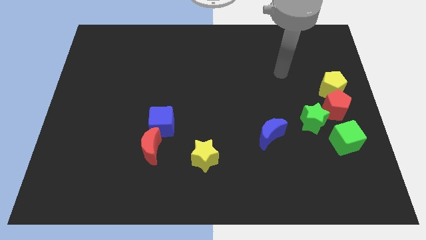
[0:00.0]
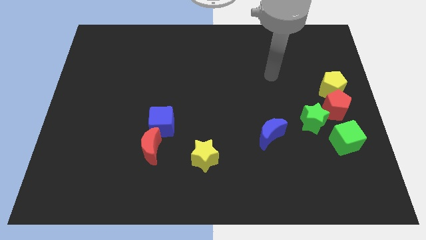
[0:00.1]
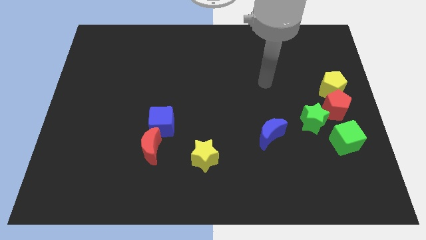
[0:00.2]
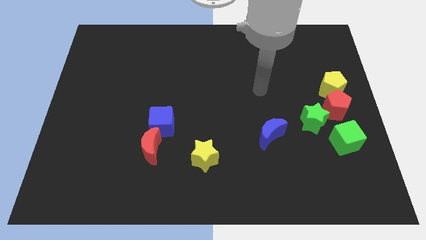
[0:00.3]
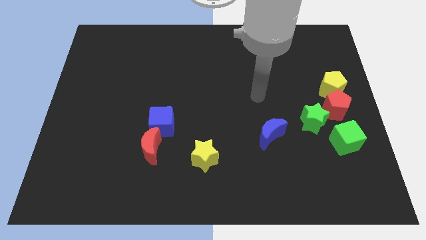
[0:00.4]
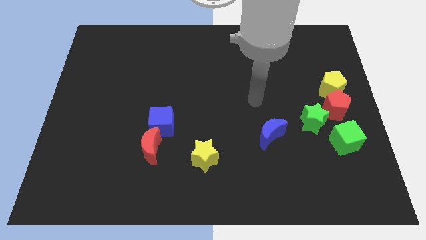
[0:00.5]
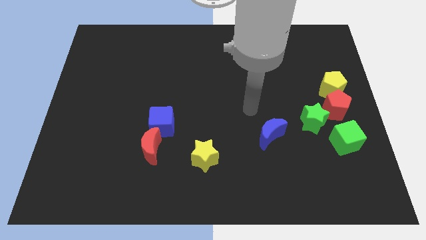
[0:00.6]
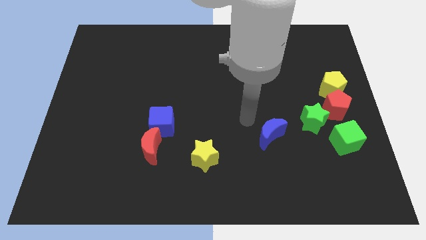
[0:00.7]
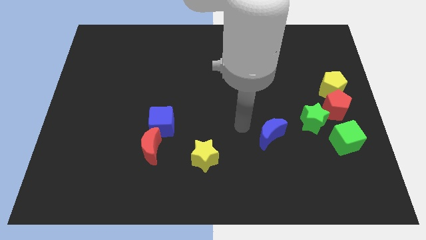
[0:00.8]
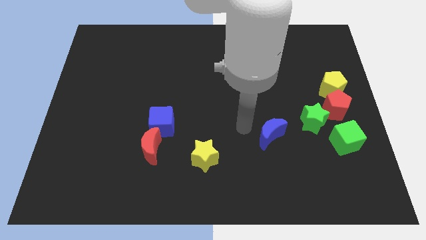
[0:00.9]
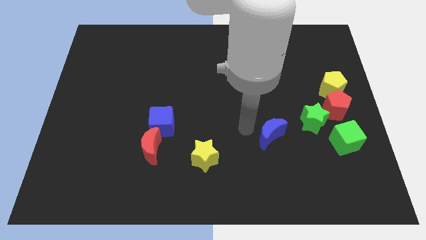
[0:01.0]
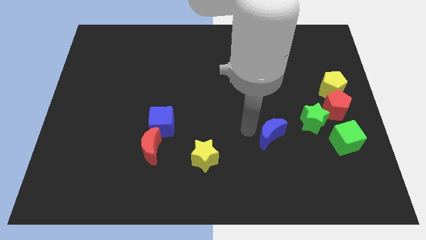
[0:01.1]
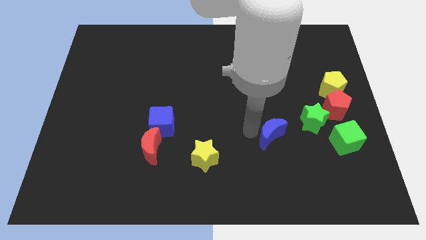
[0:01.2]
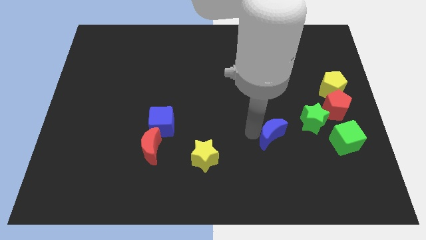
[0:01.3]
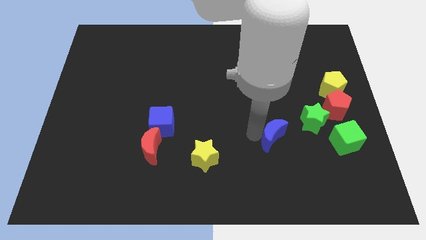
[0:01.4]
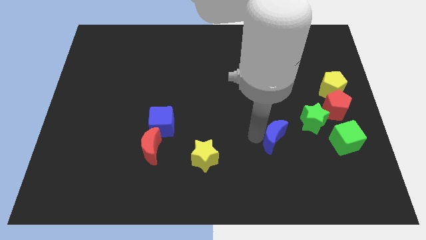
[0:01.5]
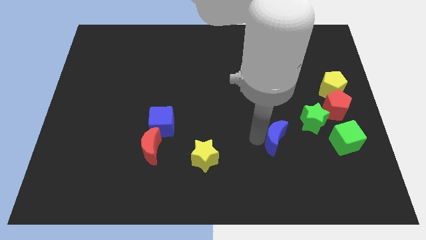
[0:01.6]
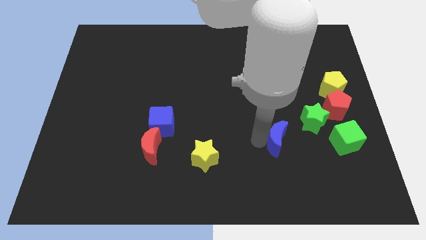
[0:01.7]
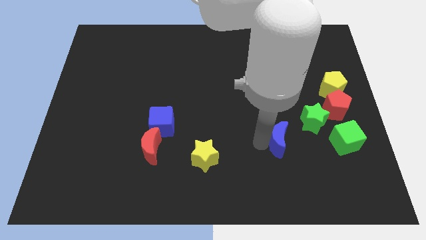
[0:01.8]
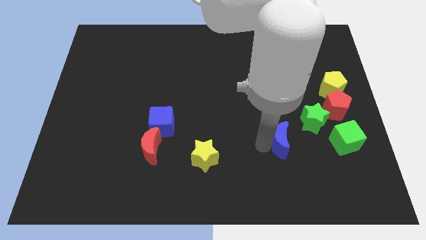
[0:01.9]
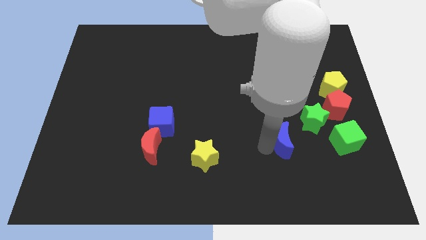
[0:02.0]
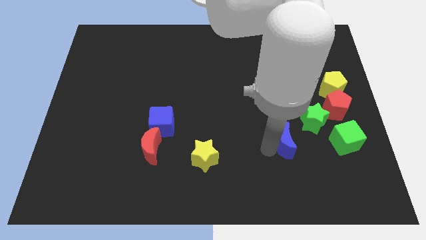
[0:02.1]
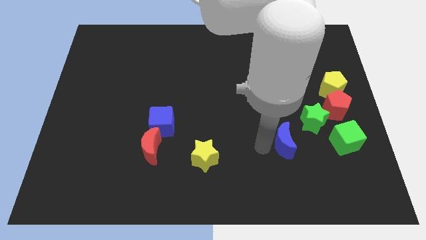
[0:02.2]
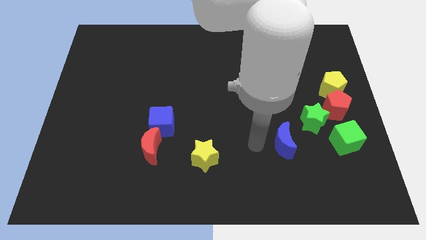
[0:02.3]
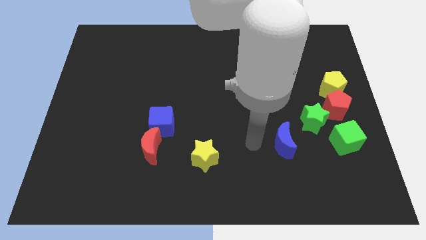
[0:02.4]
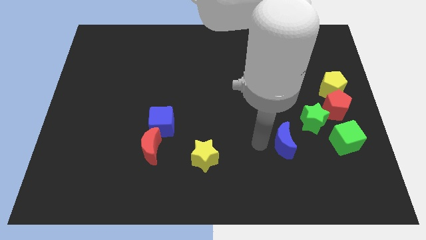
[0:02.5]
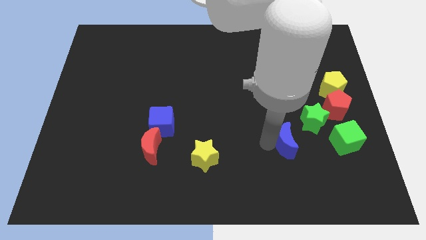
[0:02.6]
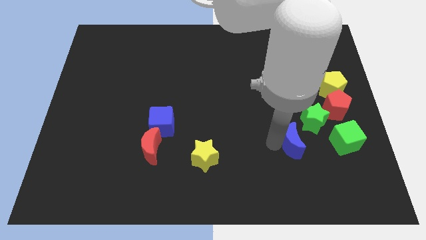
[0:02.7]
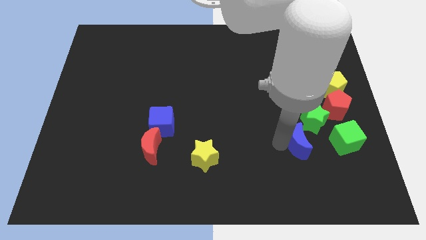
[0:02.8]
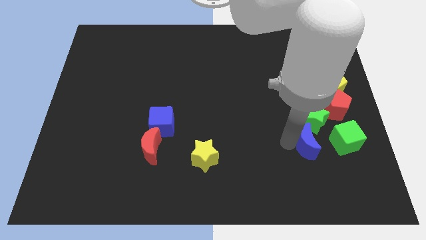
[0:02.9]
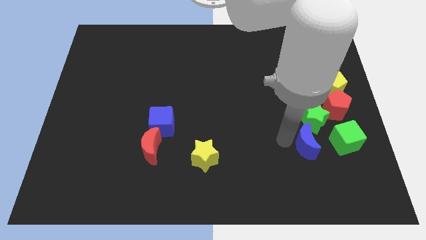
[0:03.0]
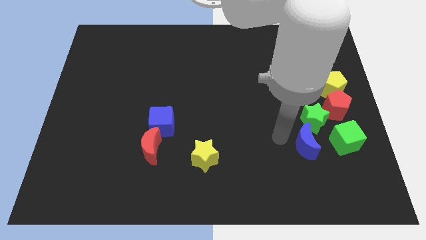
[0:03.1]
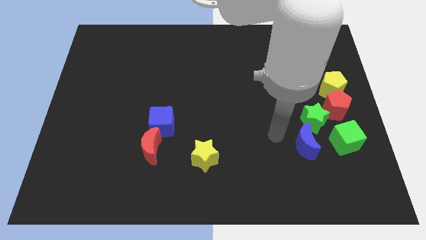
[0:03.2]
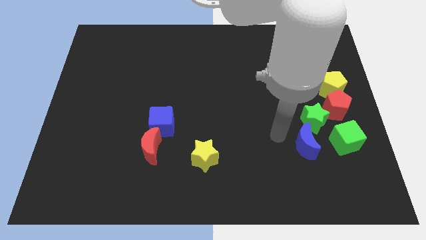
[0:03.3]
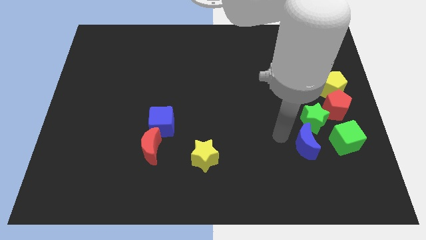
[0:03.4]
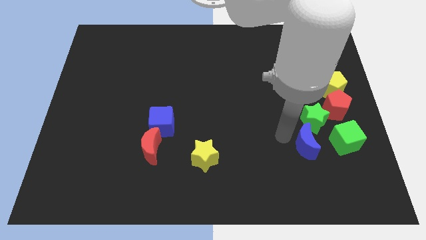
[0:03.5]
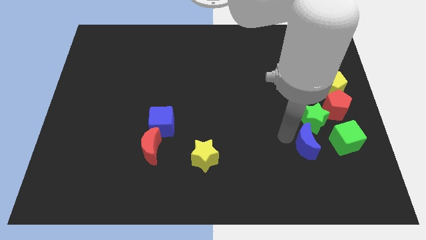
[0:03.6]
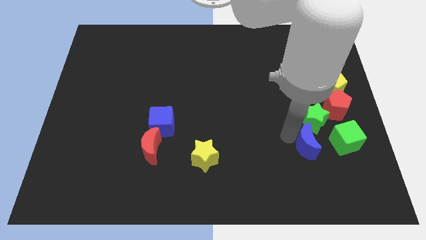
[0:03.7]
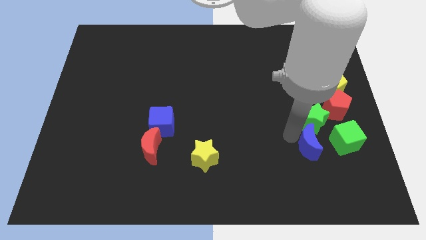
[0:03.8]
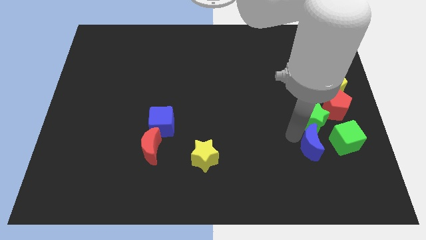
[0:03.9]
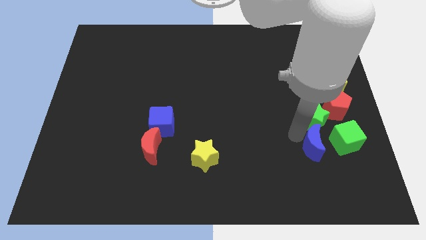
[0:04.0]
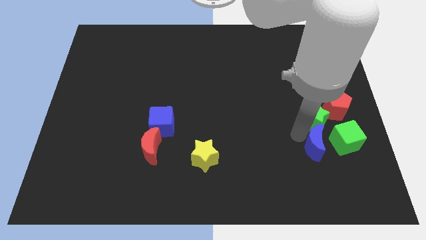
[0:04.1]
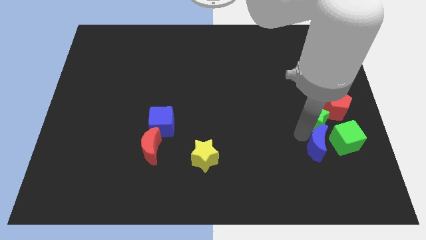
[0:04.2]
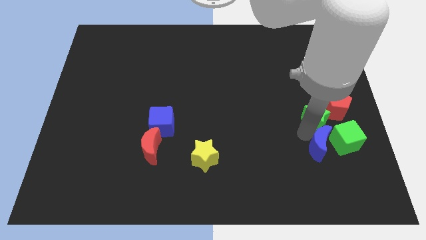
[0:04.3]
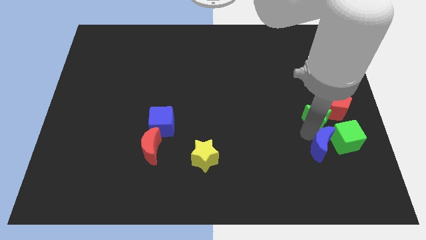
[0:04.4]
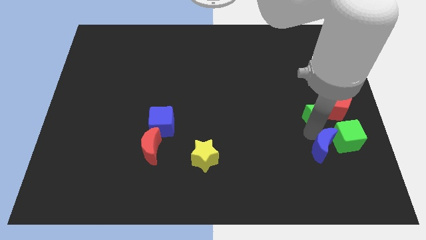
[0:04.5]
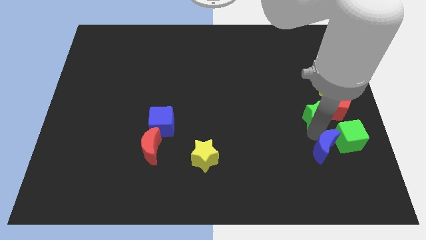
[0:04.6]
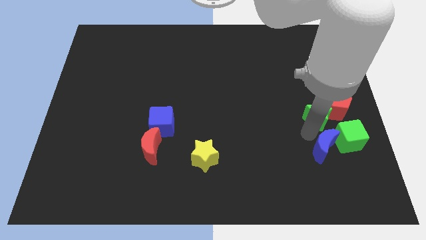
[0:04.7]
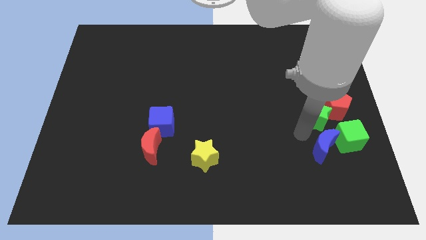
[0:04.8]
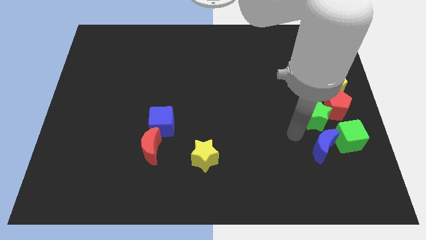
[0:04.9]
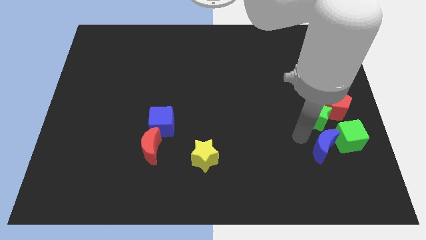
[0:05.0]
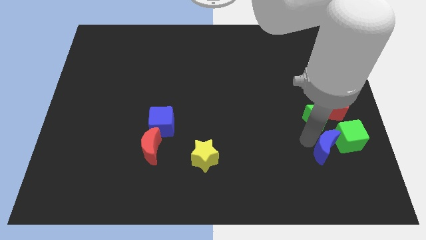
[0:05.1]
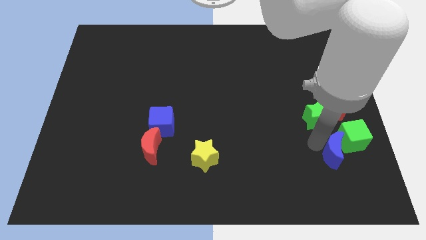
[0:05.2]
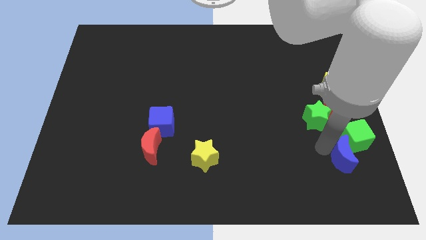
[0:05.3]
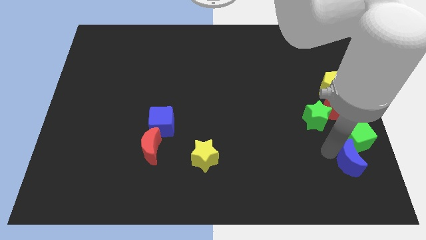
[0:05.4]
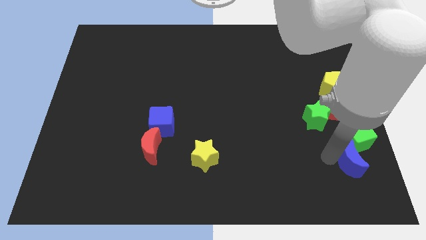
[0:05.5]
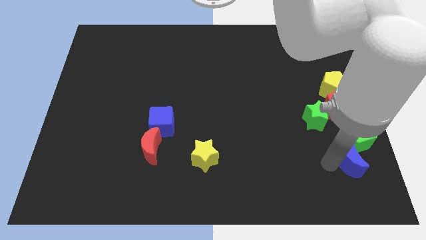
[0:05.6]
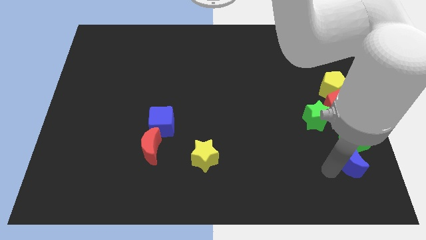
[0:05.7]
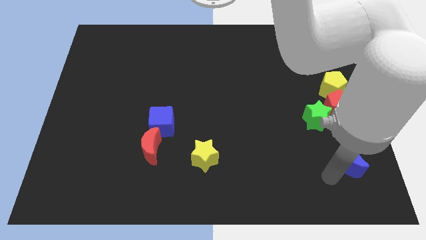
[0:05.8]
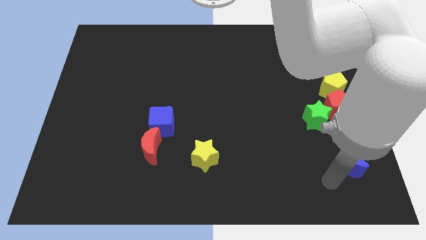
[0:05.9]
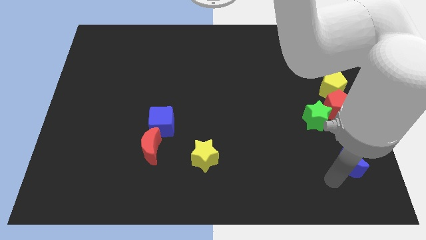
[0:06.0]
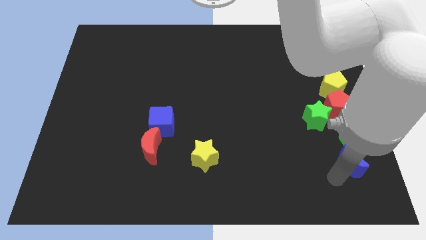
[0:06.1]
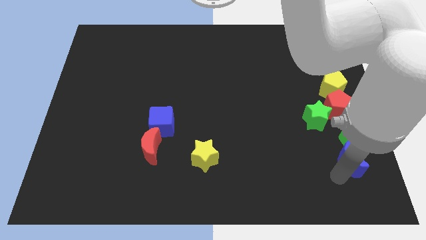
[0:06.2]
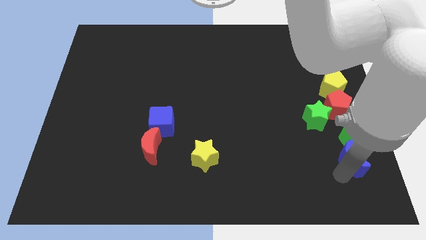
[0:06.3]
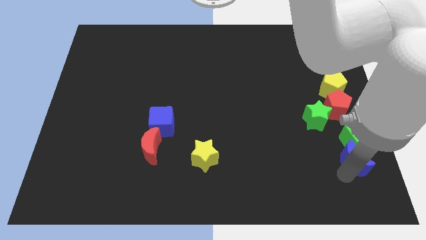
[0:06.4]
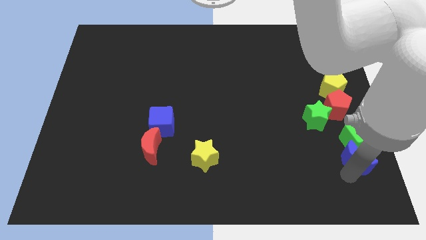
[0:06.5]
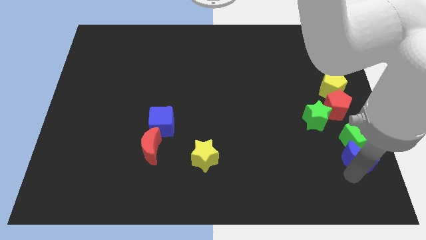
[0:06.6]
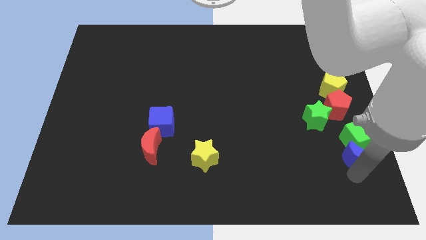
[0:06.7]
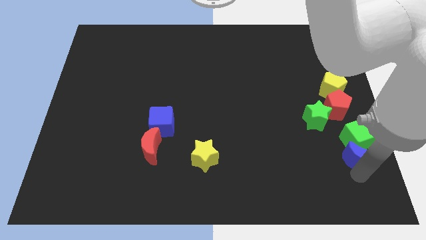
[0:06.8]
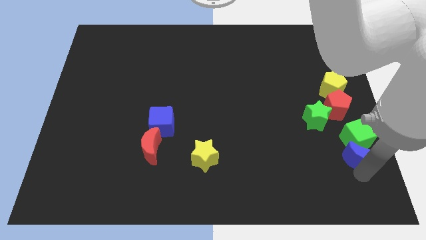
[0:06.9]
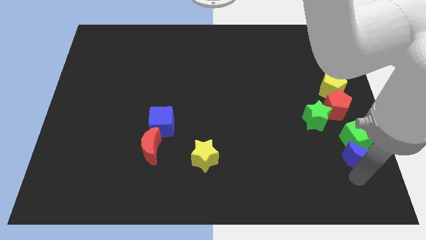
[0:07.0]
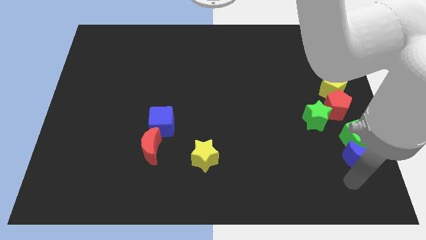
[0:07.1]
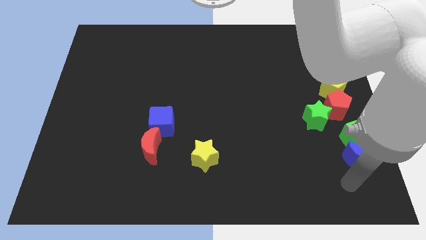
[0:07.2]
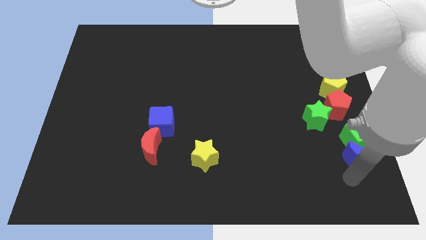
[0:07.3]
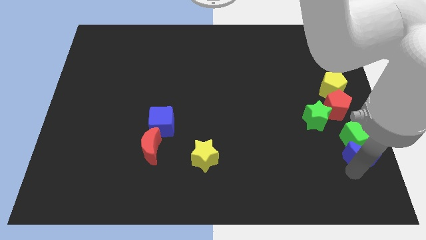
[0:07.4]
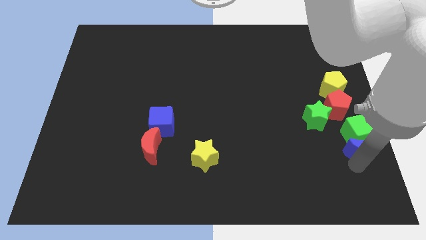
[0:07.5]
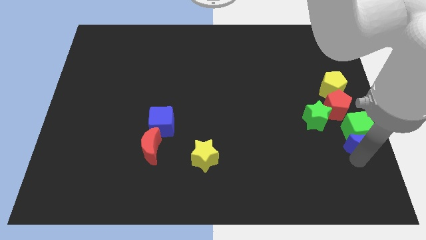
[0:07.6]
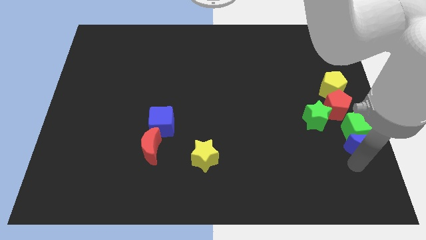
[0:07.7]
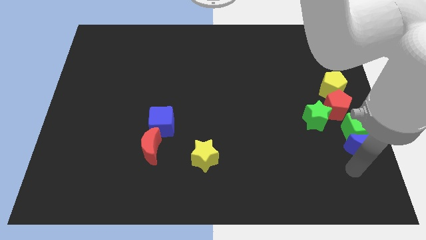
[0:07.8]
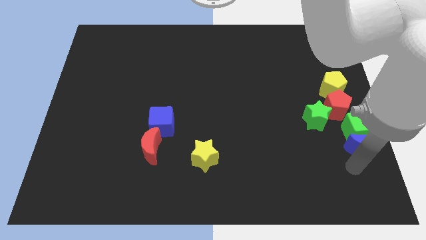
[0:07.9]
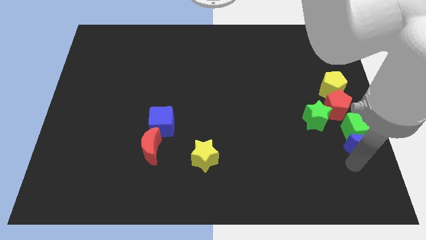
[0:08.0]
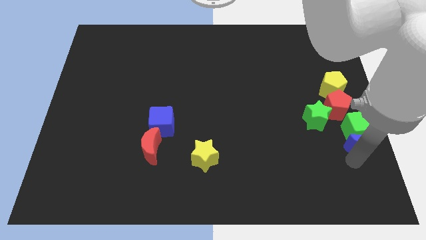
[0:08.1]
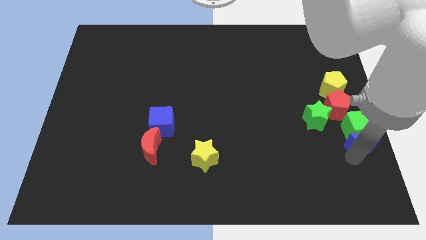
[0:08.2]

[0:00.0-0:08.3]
move the blue moon to the right side of the board
